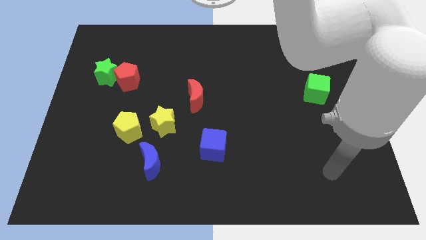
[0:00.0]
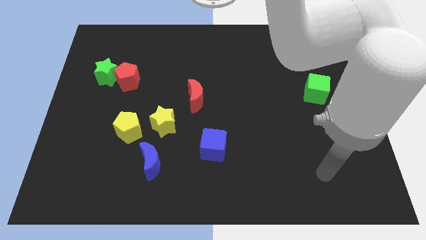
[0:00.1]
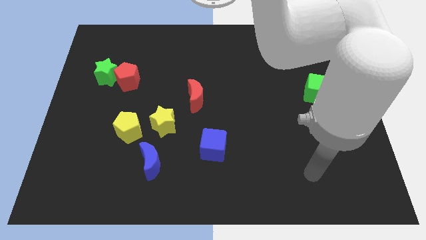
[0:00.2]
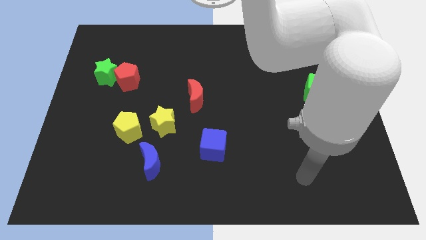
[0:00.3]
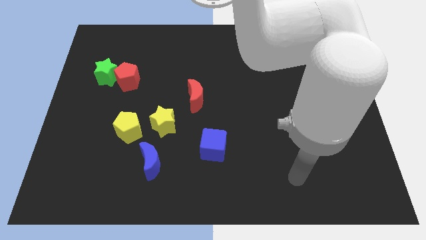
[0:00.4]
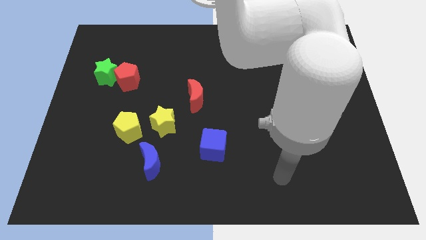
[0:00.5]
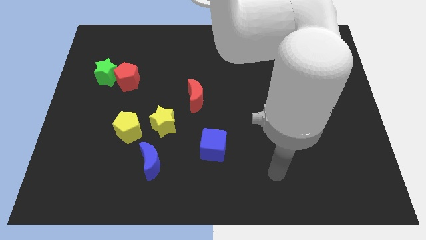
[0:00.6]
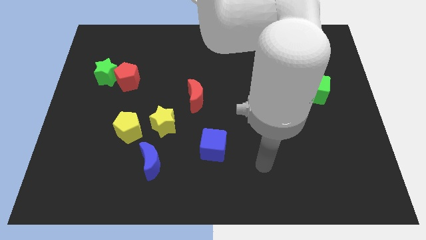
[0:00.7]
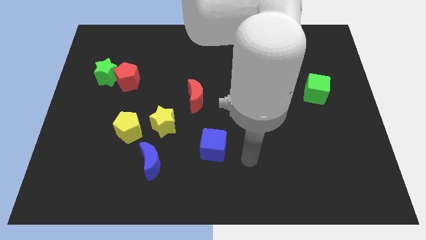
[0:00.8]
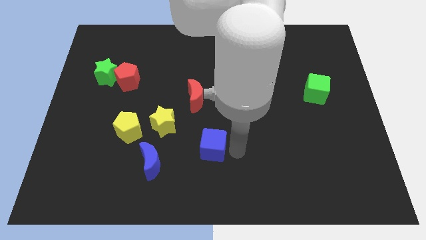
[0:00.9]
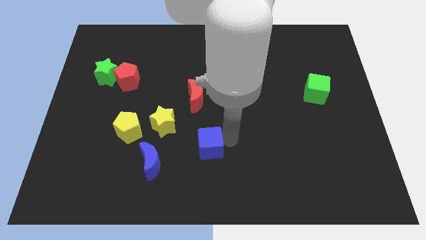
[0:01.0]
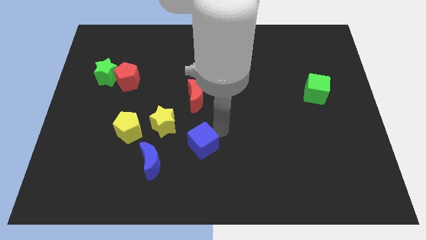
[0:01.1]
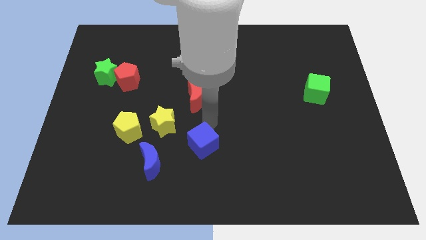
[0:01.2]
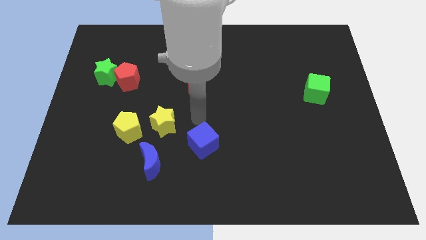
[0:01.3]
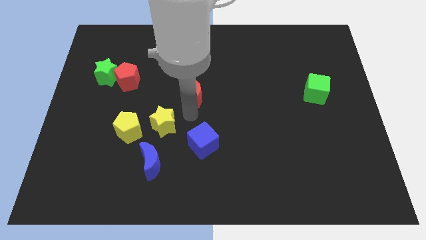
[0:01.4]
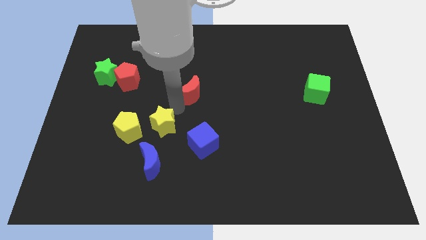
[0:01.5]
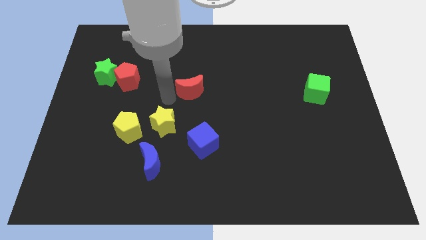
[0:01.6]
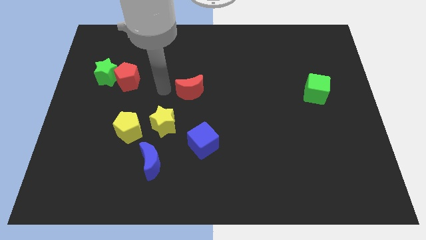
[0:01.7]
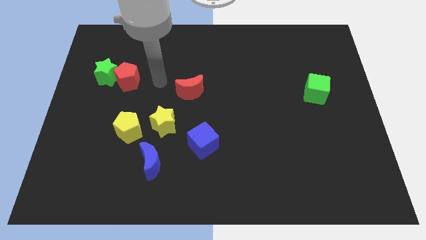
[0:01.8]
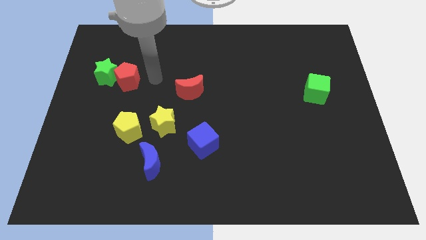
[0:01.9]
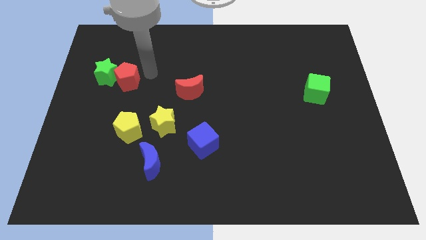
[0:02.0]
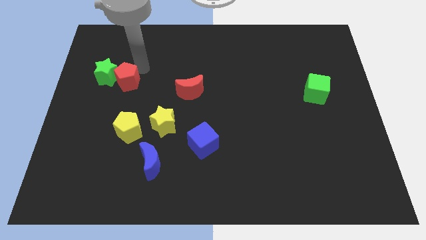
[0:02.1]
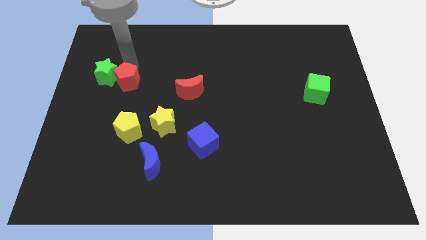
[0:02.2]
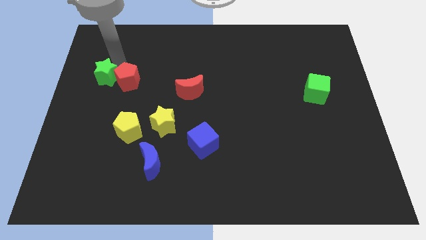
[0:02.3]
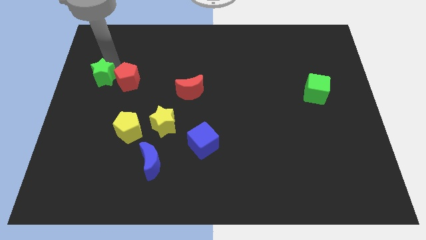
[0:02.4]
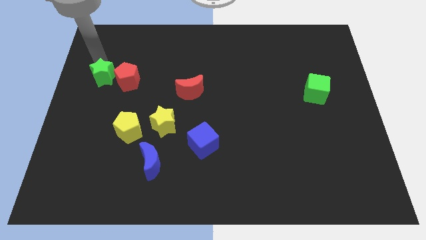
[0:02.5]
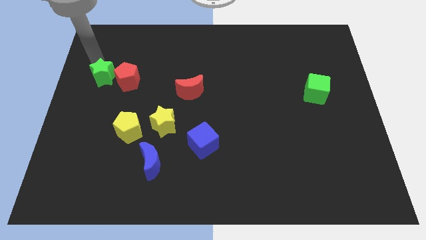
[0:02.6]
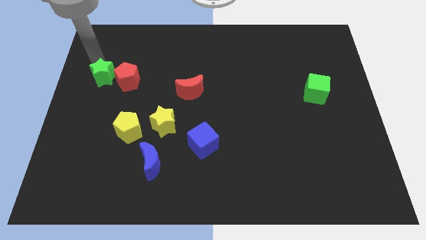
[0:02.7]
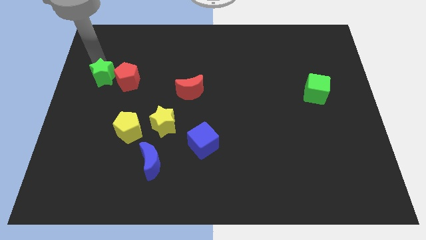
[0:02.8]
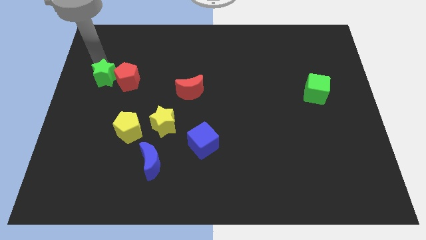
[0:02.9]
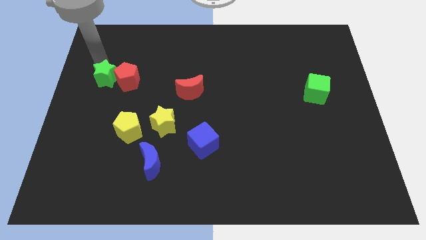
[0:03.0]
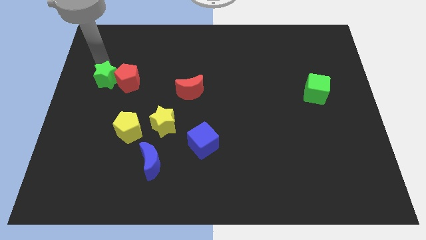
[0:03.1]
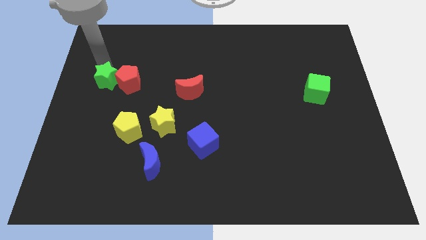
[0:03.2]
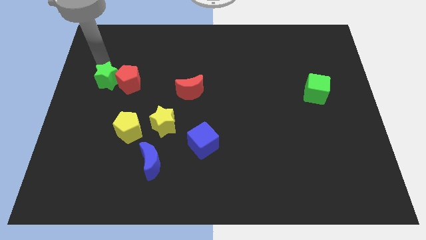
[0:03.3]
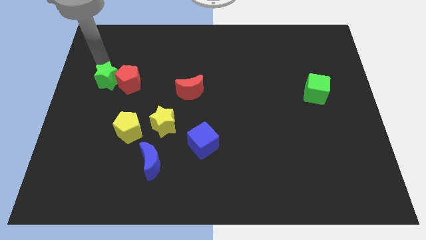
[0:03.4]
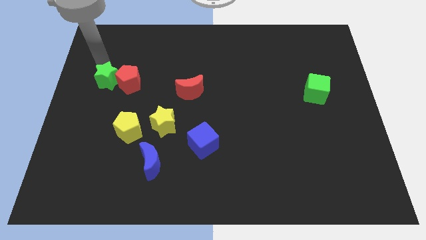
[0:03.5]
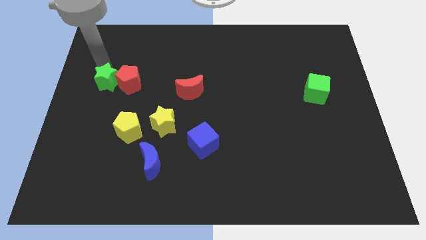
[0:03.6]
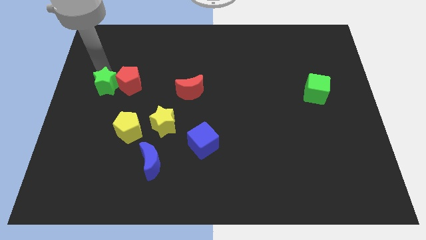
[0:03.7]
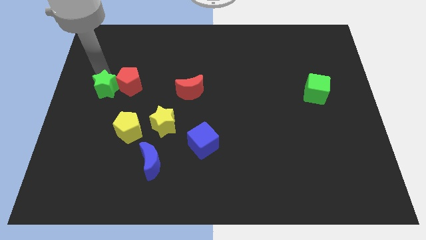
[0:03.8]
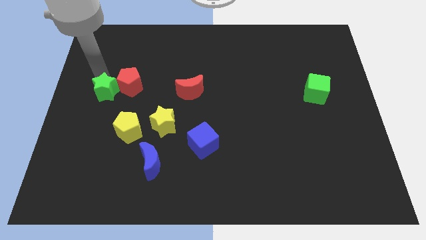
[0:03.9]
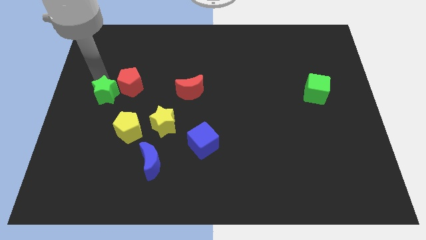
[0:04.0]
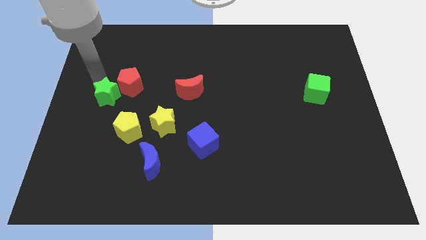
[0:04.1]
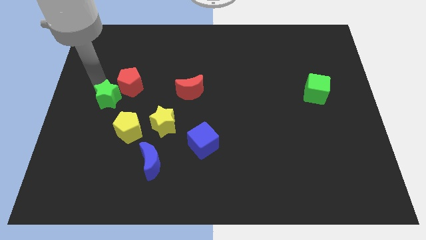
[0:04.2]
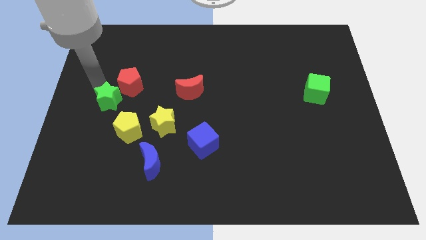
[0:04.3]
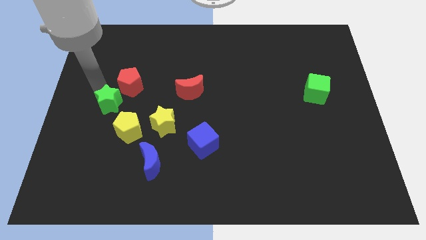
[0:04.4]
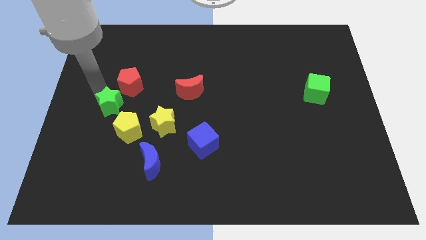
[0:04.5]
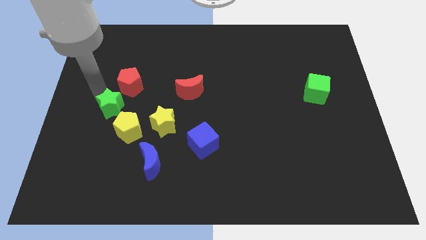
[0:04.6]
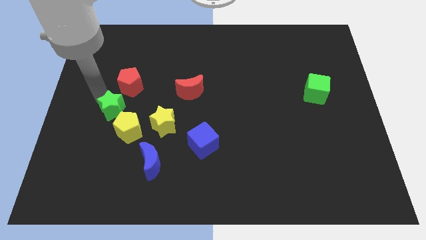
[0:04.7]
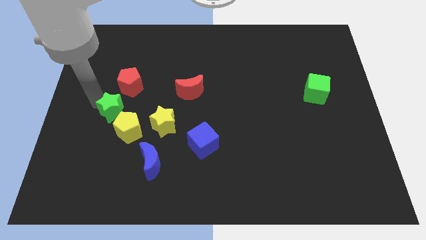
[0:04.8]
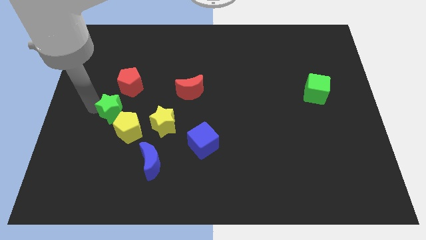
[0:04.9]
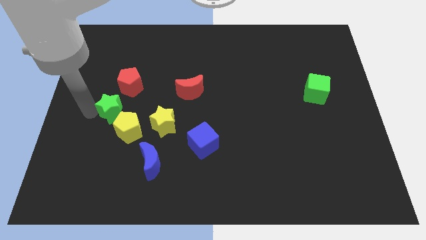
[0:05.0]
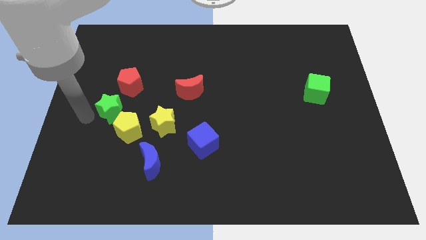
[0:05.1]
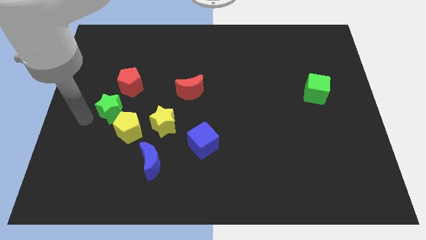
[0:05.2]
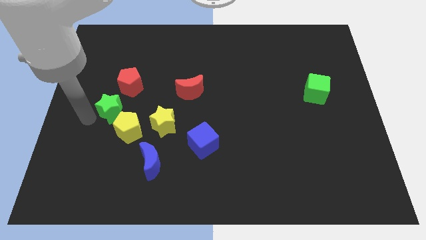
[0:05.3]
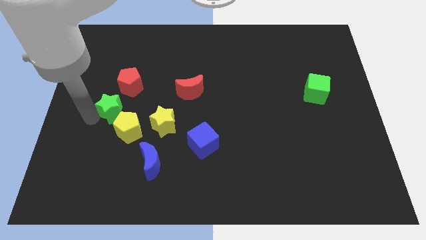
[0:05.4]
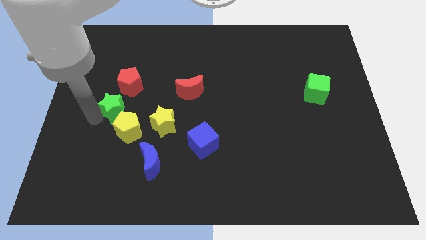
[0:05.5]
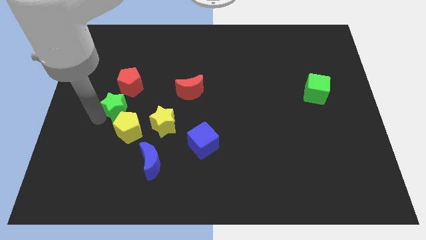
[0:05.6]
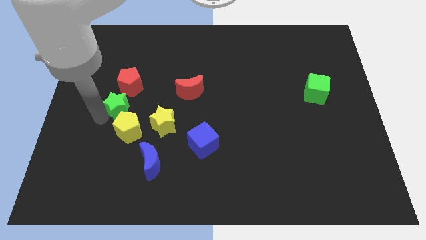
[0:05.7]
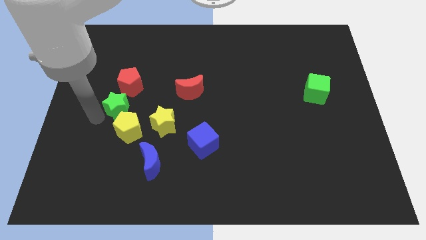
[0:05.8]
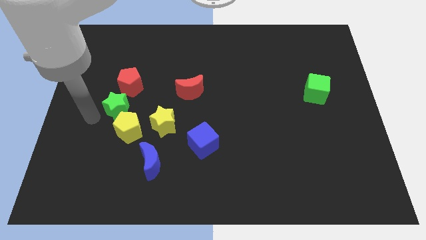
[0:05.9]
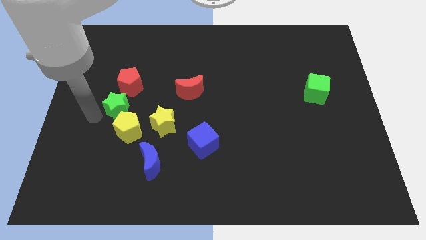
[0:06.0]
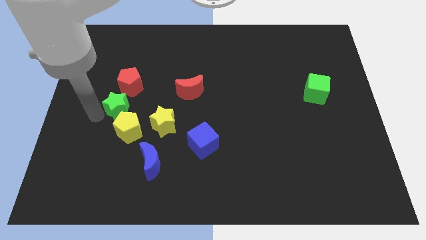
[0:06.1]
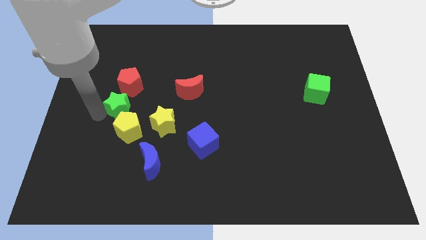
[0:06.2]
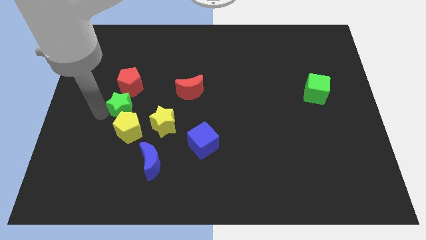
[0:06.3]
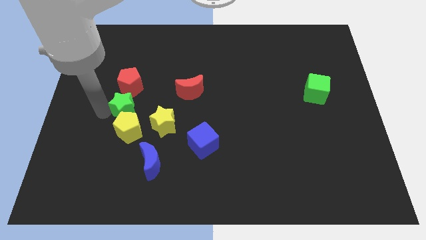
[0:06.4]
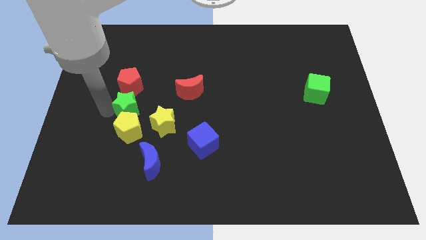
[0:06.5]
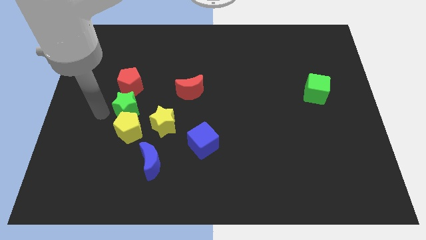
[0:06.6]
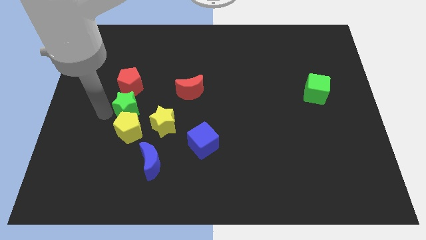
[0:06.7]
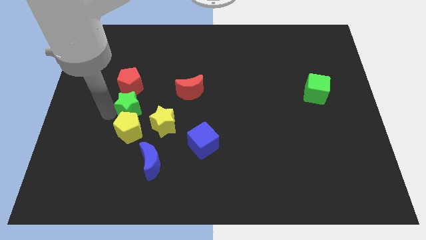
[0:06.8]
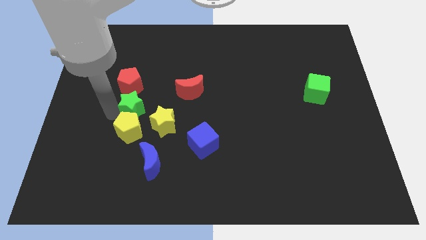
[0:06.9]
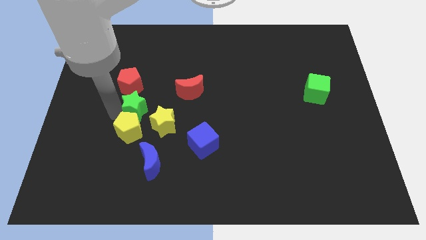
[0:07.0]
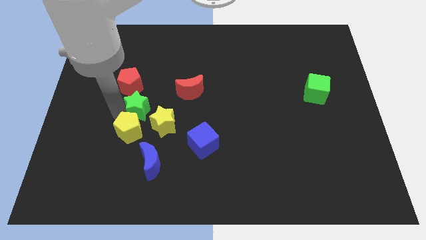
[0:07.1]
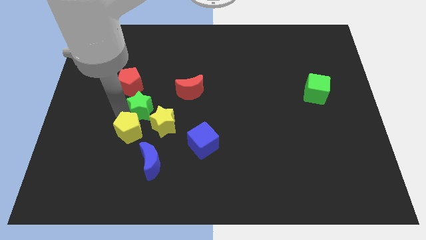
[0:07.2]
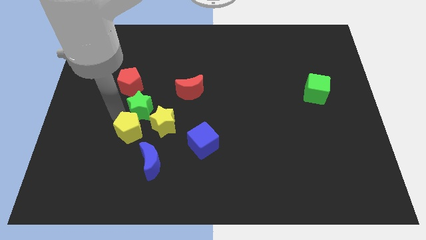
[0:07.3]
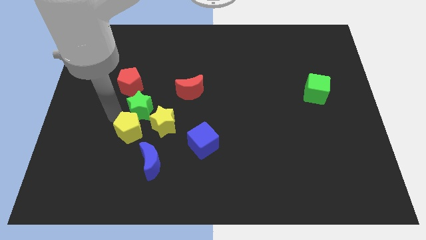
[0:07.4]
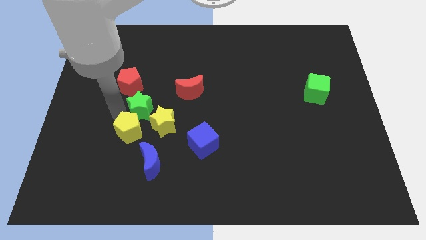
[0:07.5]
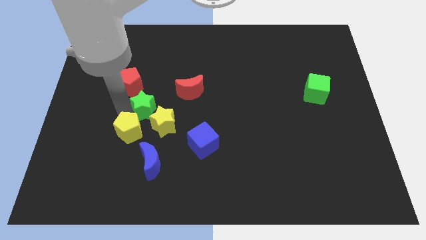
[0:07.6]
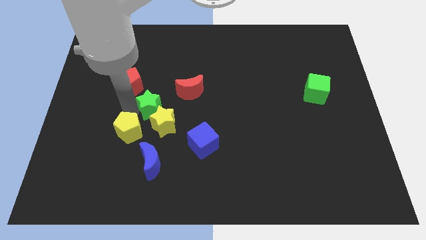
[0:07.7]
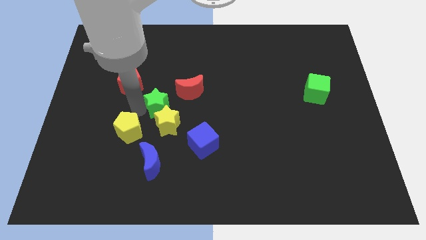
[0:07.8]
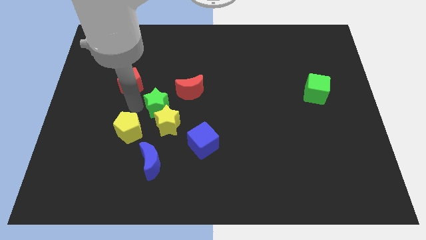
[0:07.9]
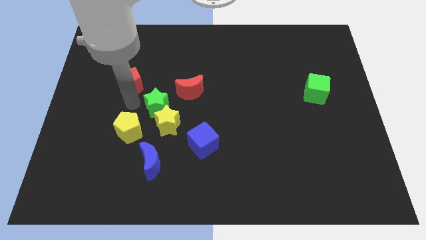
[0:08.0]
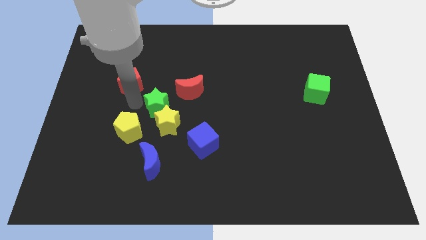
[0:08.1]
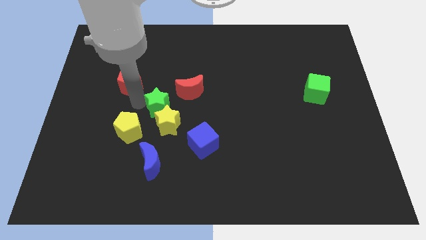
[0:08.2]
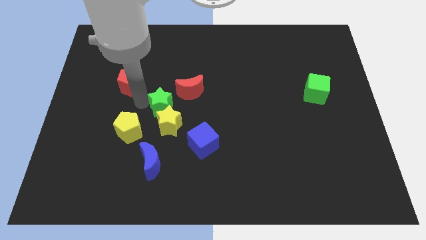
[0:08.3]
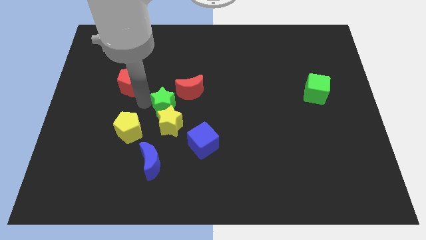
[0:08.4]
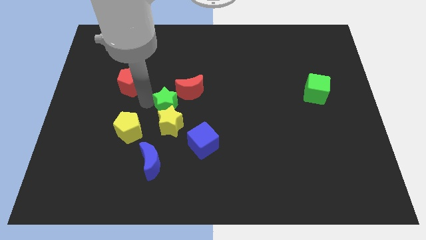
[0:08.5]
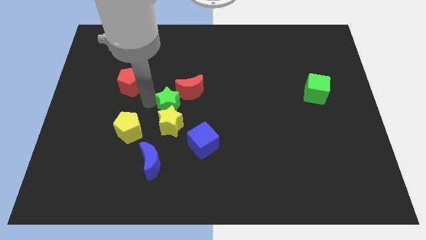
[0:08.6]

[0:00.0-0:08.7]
push the green star to the red moon
